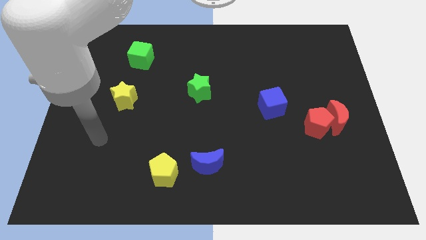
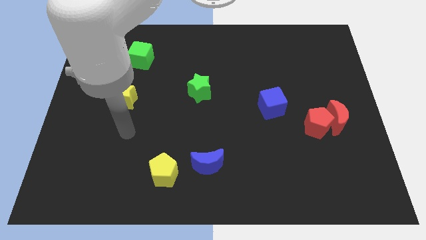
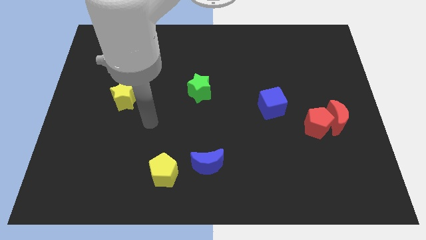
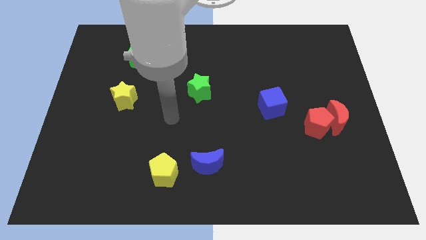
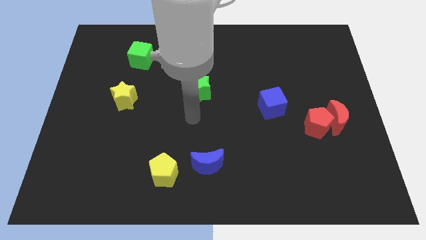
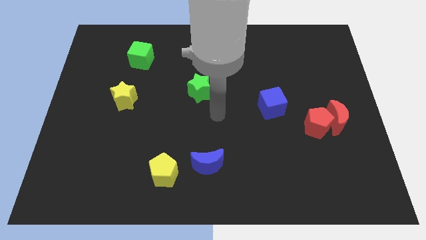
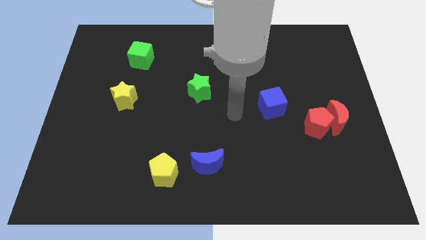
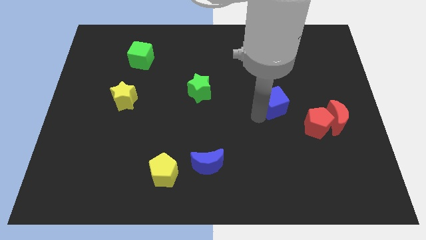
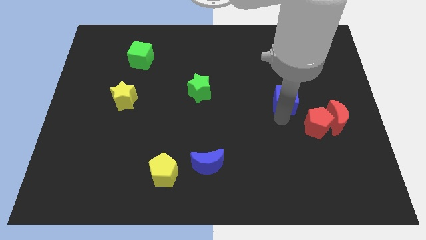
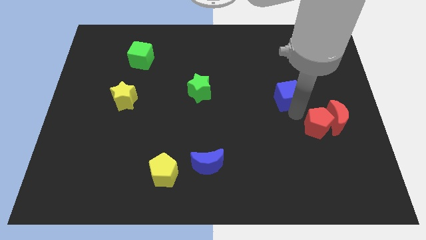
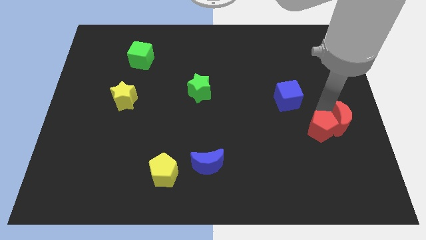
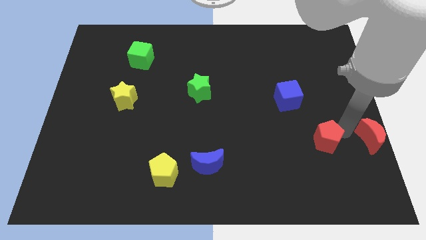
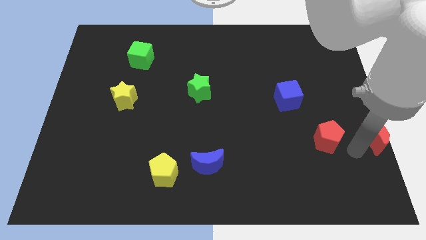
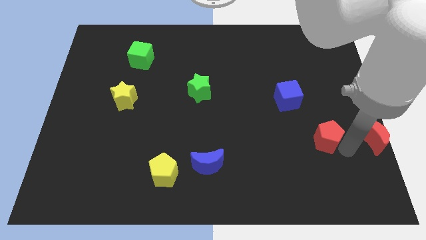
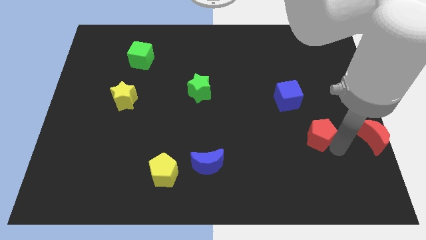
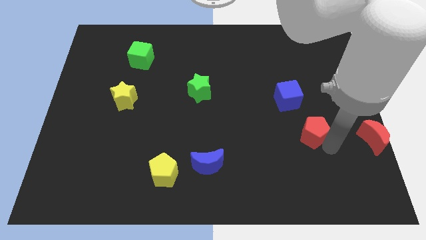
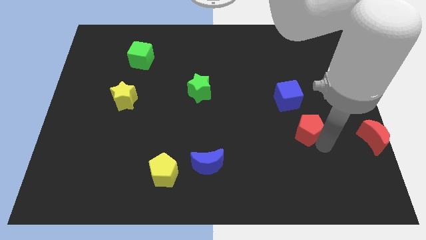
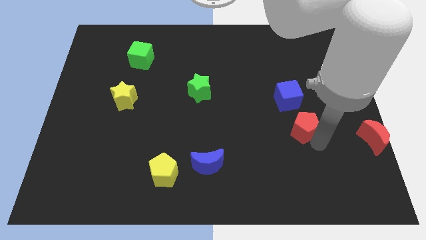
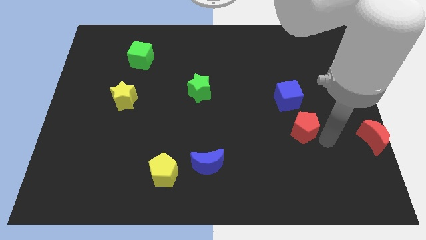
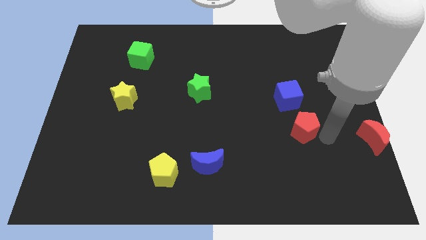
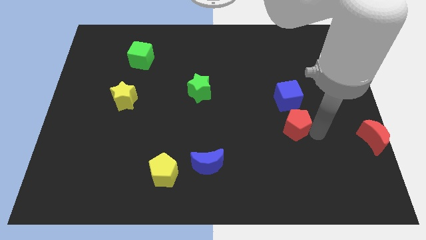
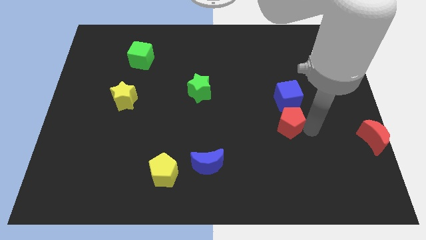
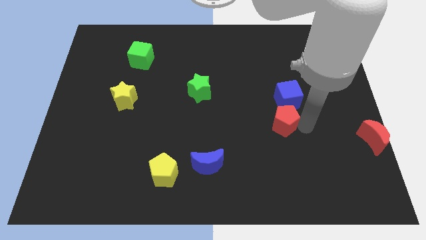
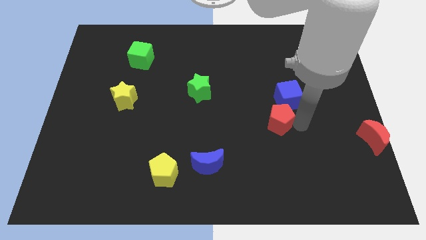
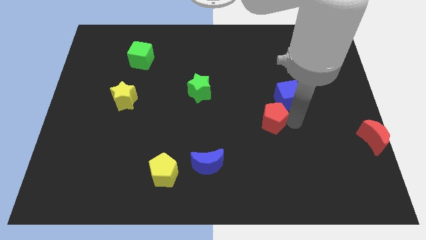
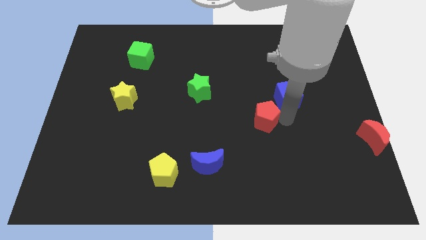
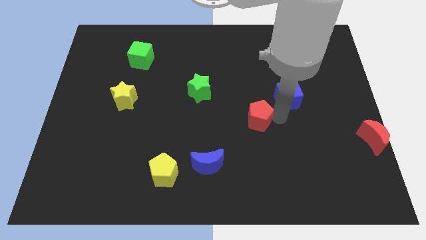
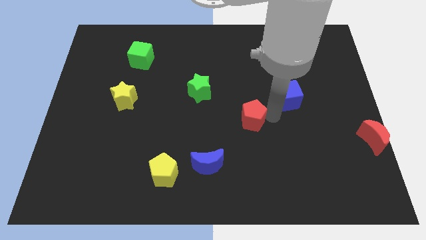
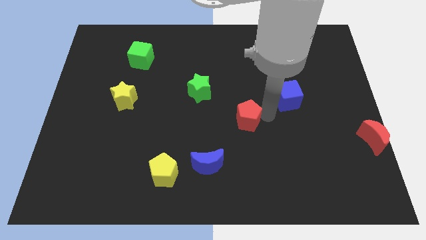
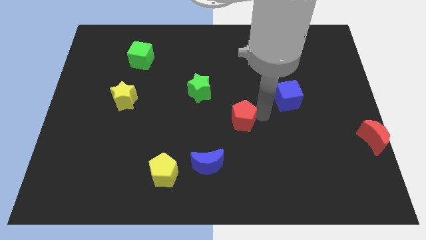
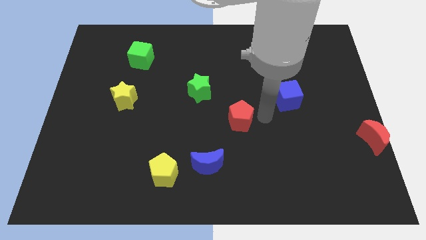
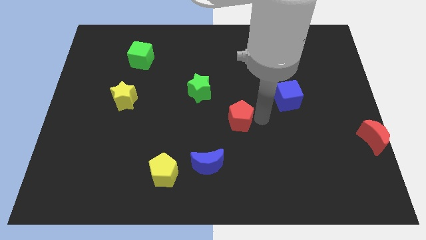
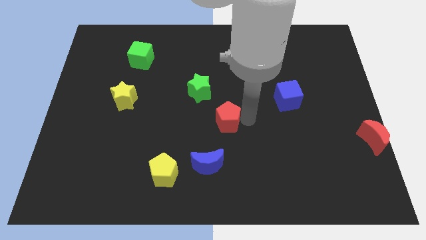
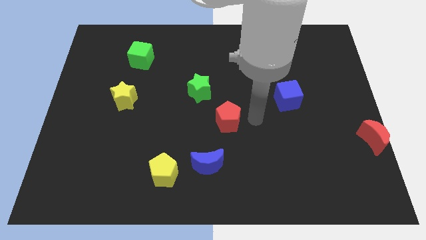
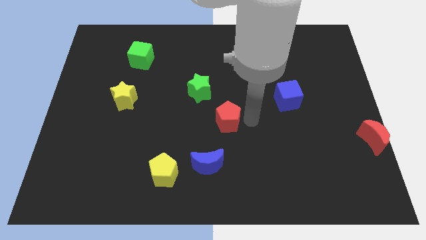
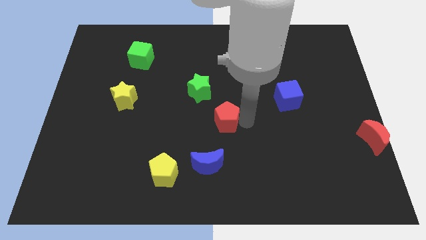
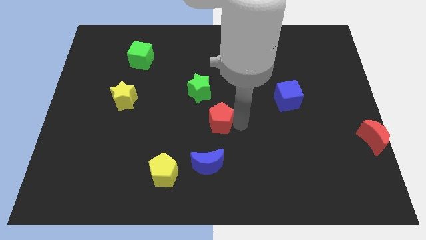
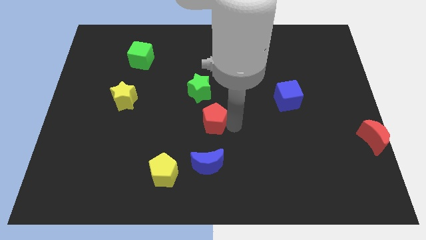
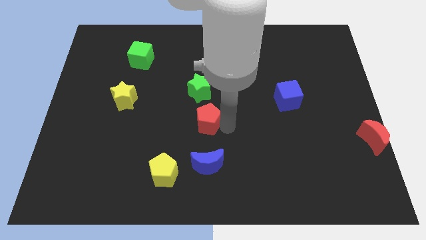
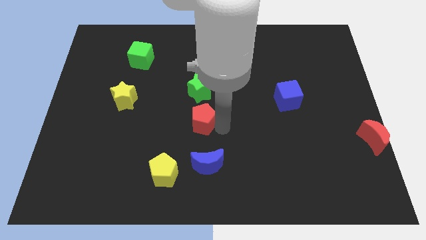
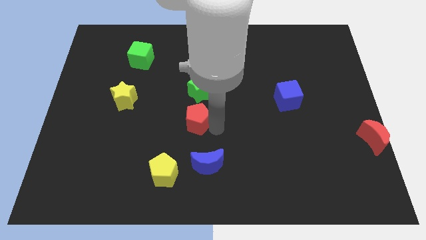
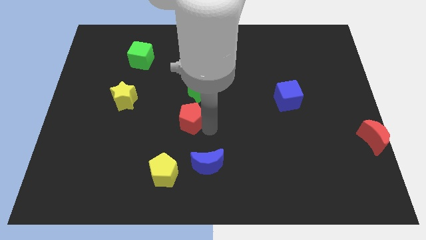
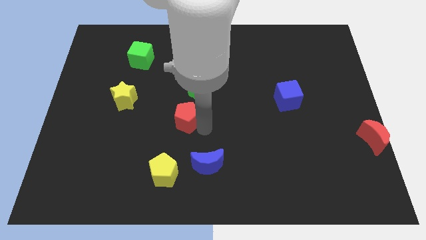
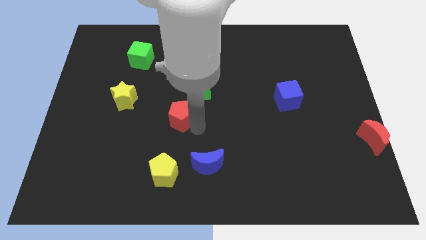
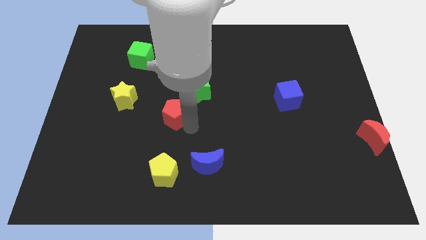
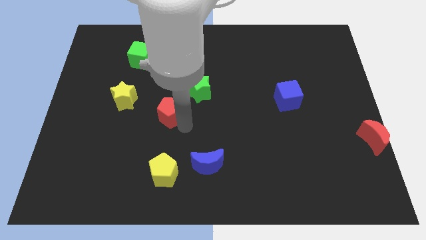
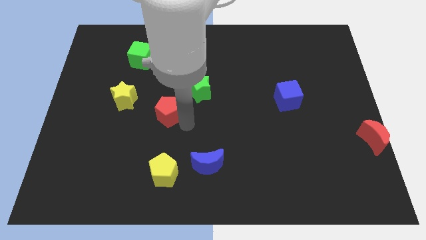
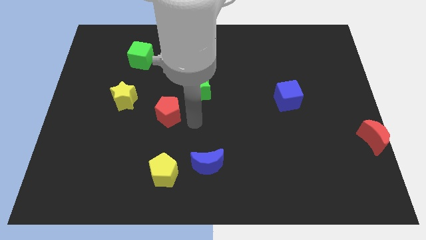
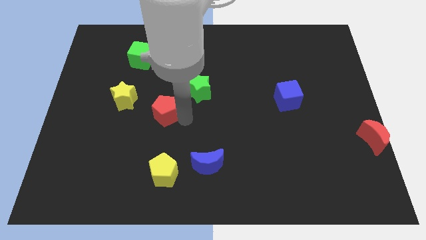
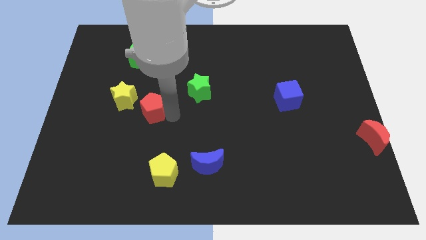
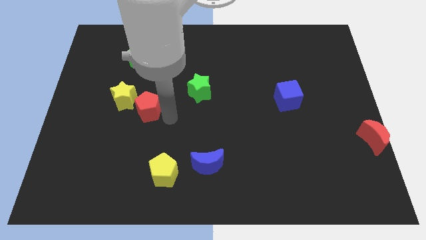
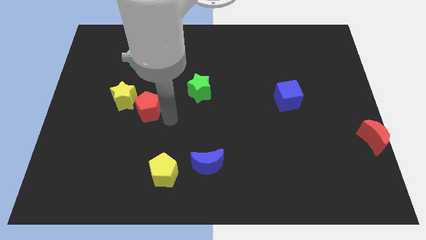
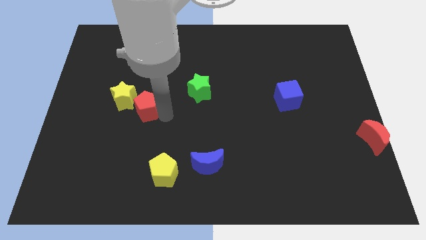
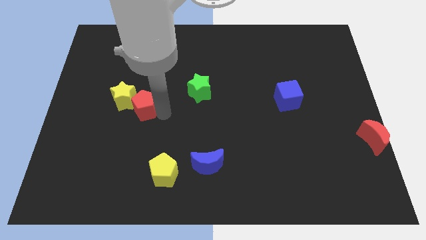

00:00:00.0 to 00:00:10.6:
move the red pentagon next to the yellow star

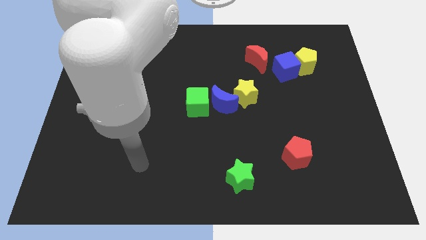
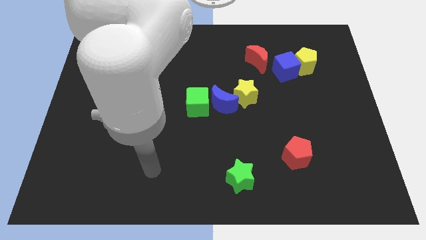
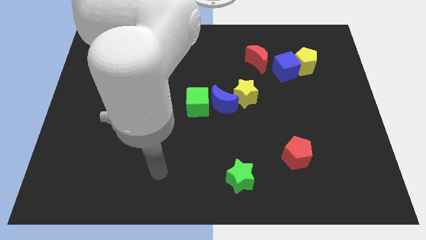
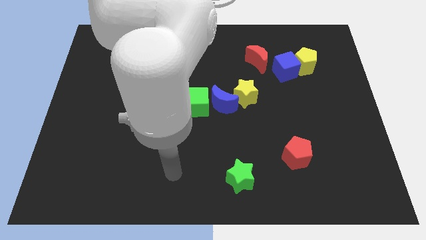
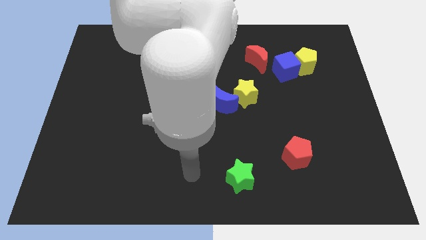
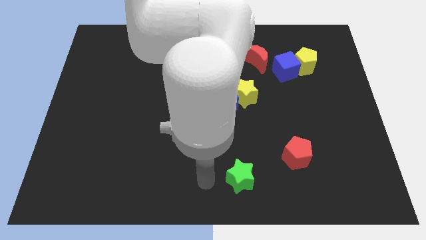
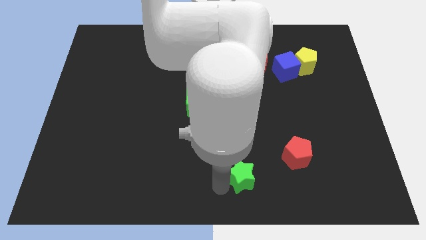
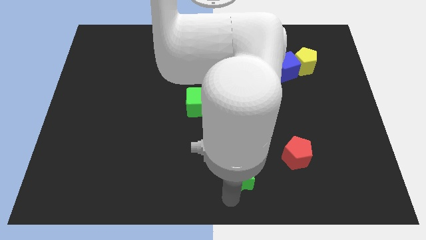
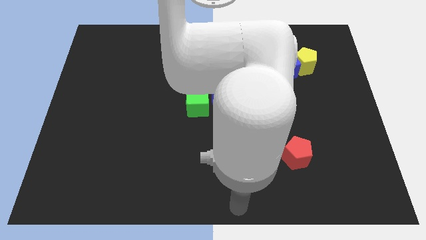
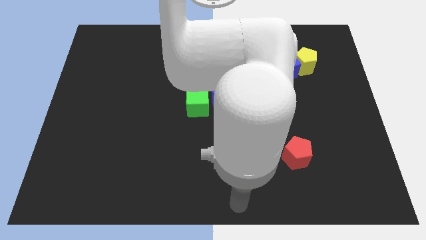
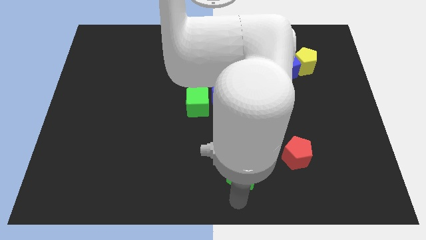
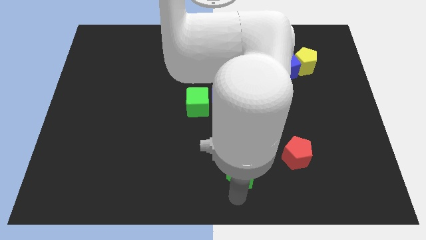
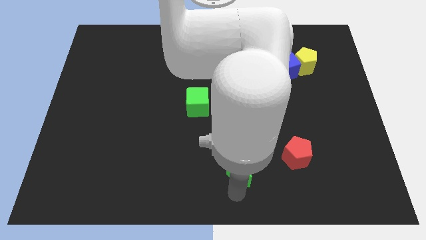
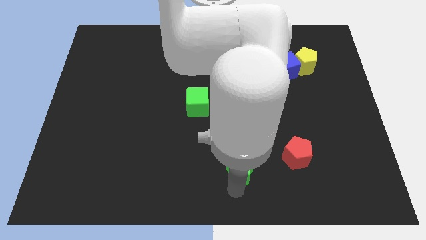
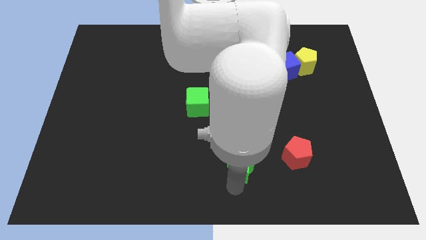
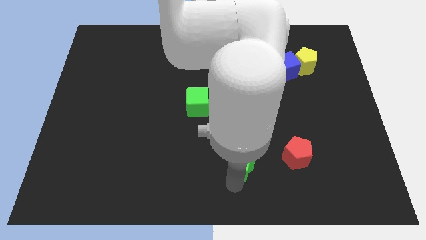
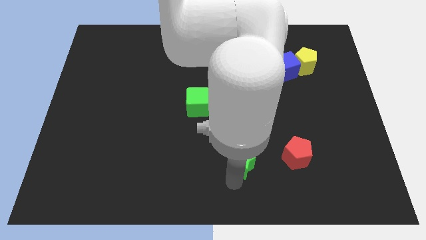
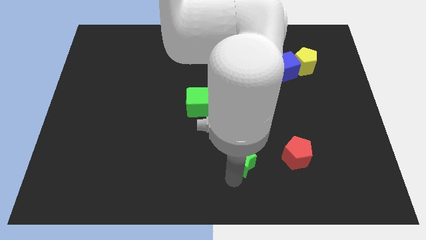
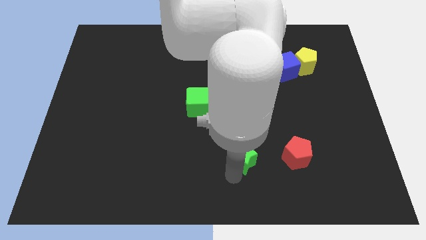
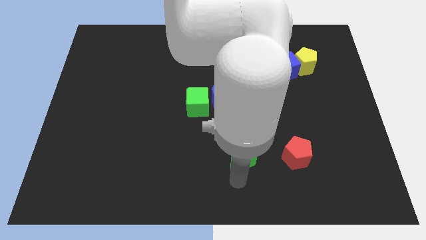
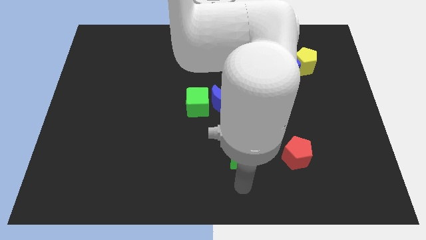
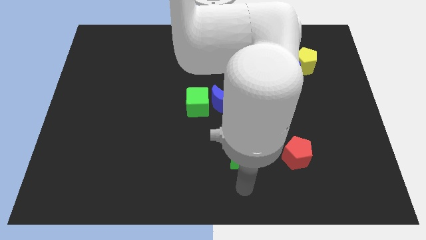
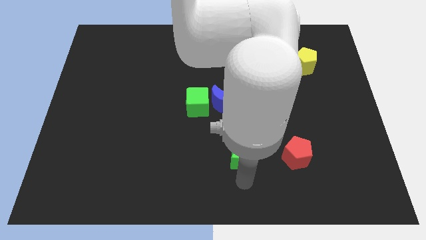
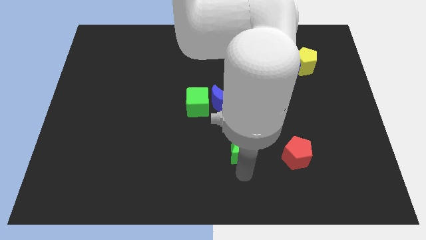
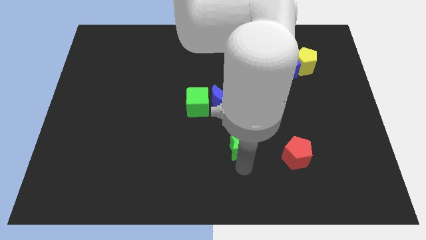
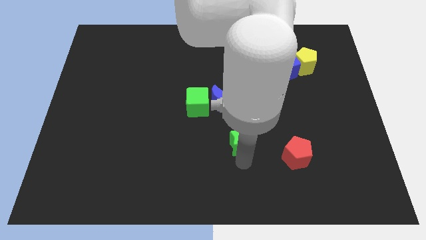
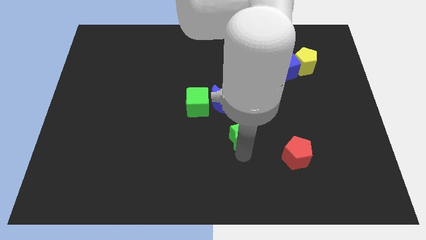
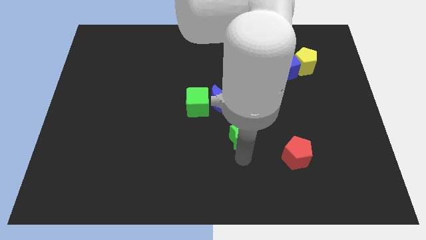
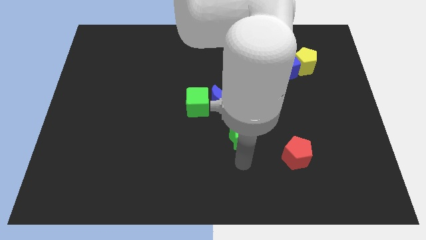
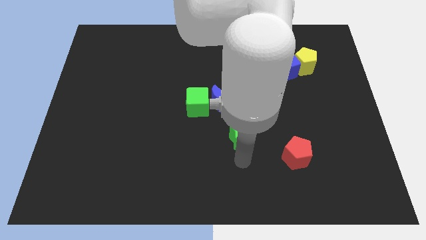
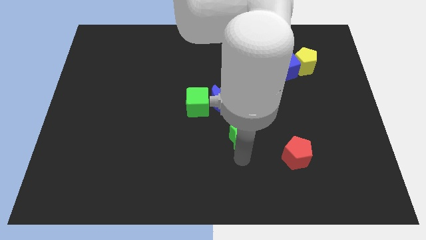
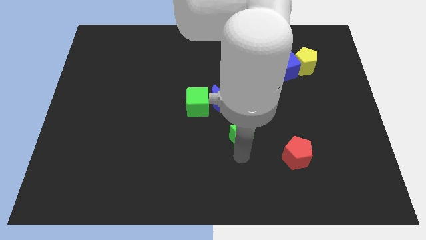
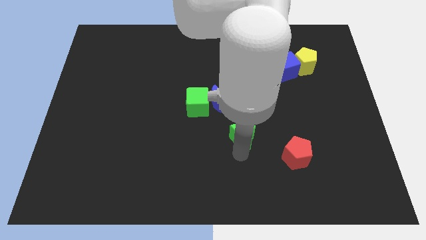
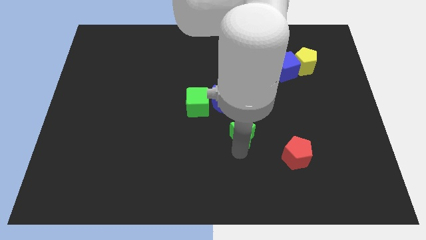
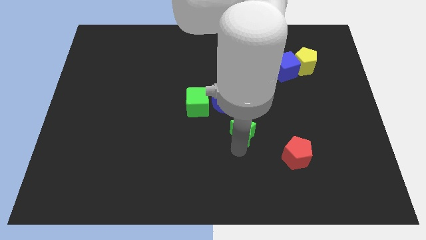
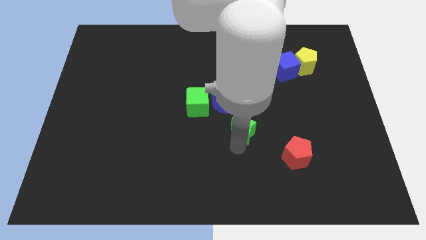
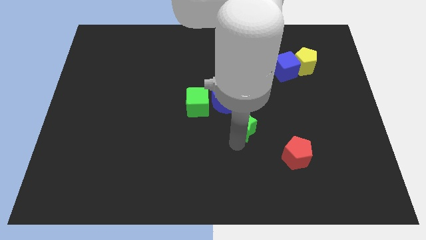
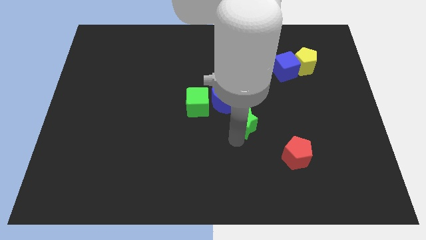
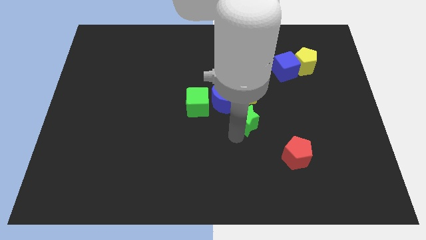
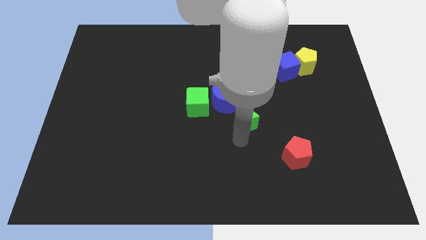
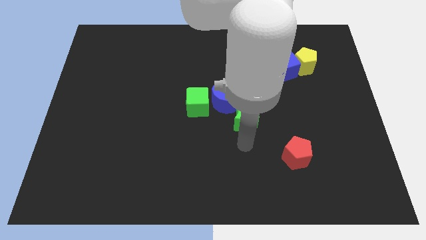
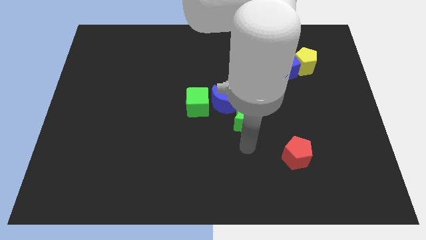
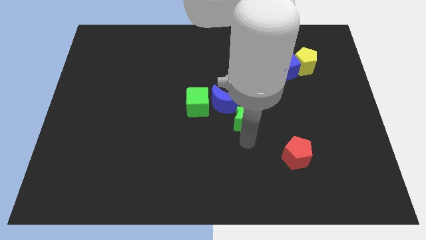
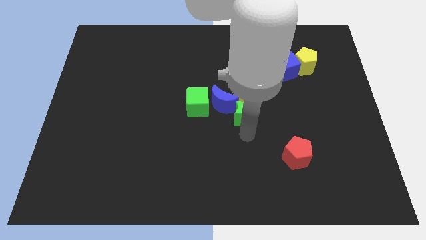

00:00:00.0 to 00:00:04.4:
put the green star next to the yellow star
